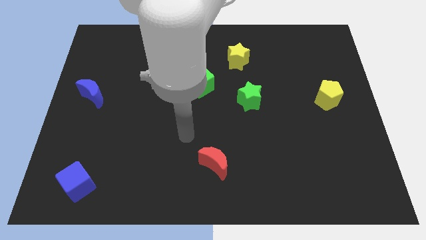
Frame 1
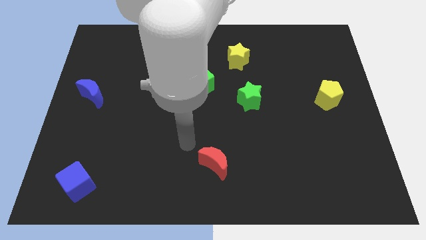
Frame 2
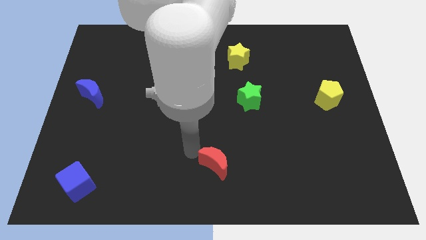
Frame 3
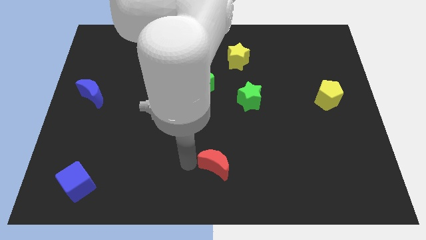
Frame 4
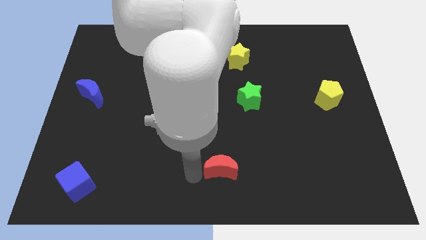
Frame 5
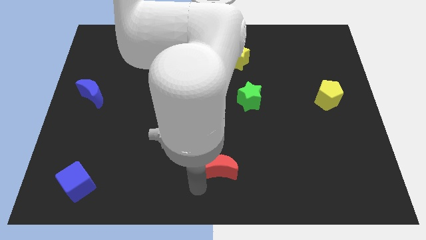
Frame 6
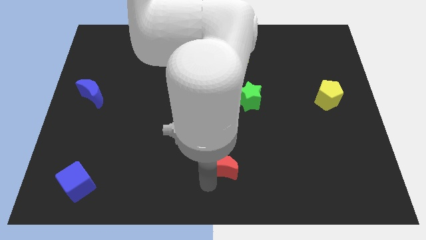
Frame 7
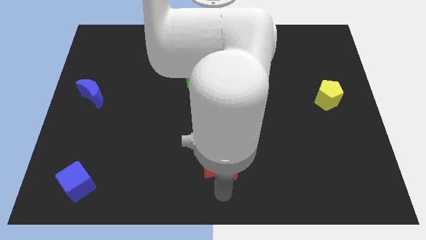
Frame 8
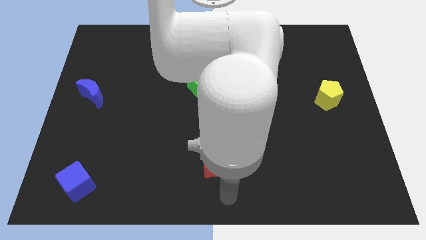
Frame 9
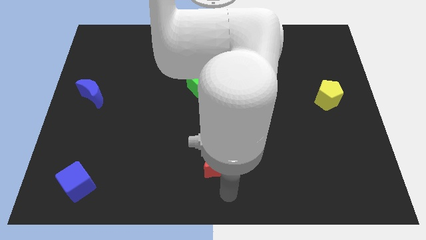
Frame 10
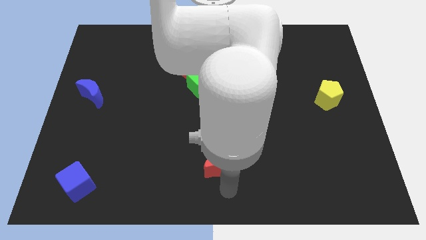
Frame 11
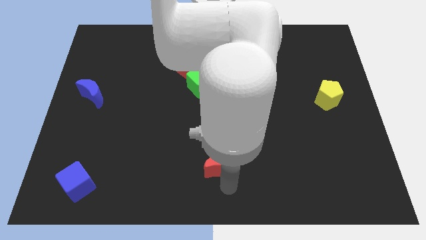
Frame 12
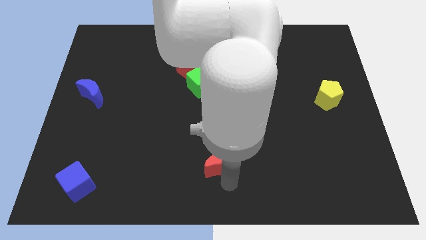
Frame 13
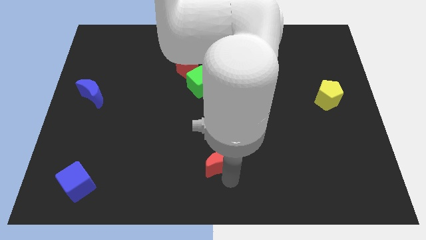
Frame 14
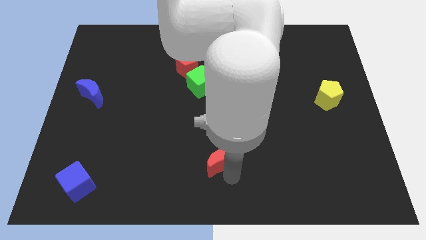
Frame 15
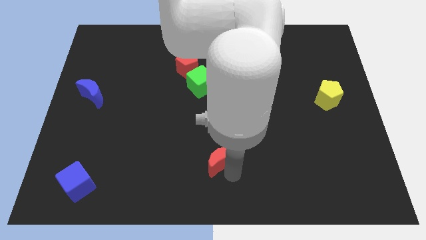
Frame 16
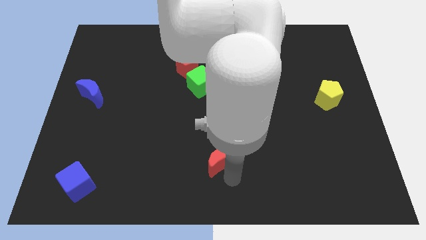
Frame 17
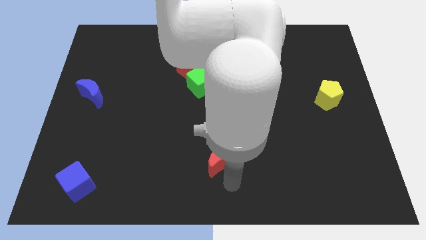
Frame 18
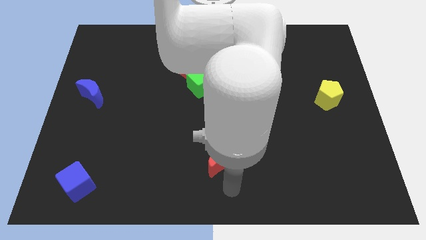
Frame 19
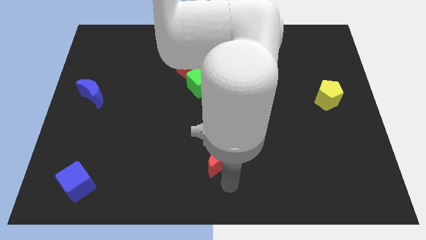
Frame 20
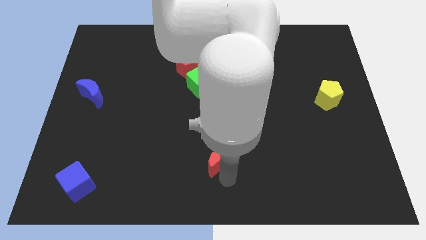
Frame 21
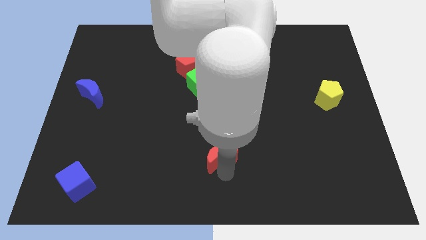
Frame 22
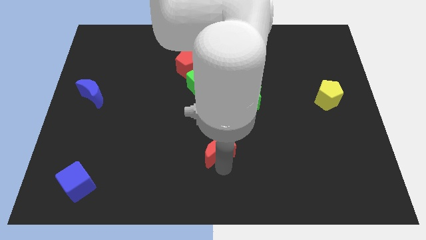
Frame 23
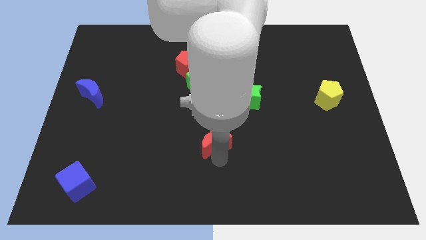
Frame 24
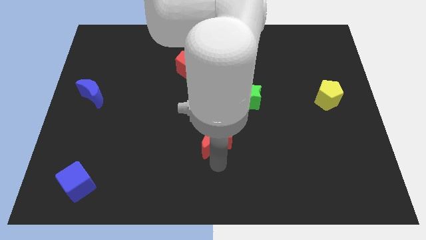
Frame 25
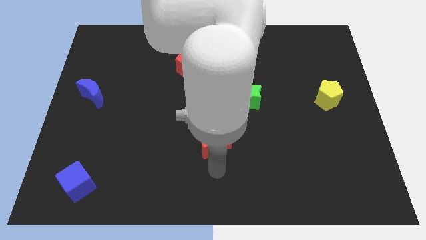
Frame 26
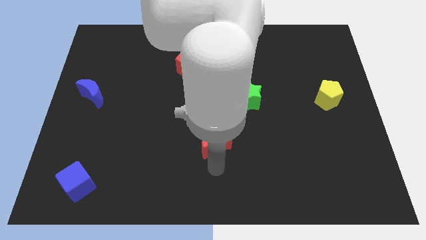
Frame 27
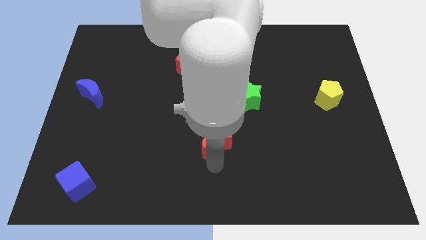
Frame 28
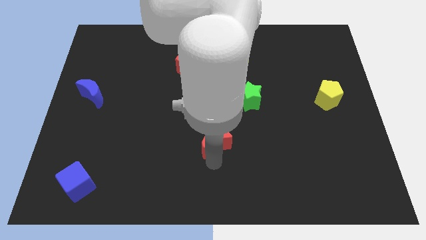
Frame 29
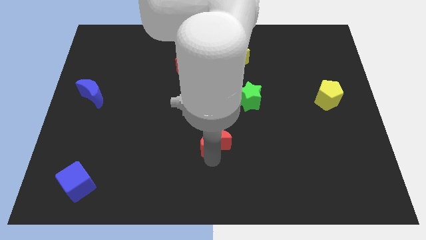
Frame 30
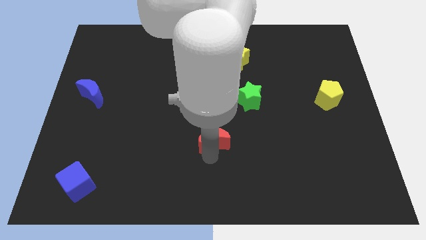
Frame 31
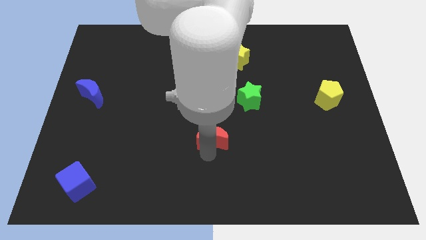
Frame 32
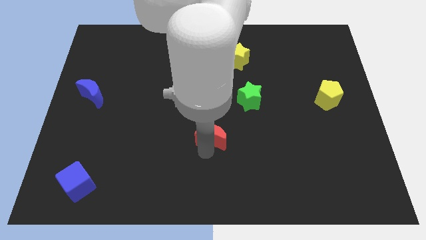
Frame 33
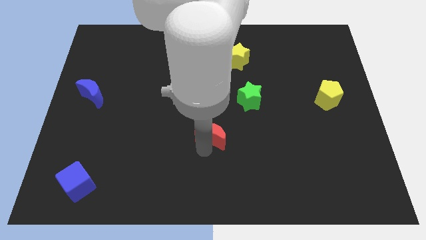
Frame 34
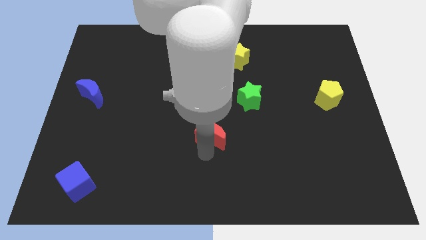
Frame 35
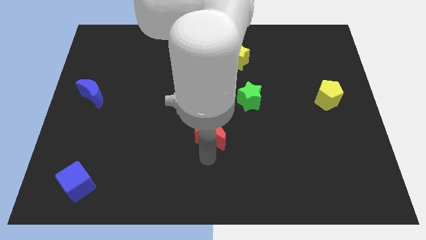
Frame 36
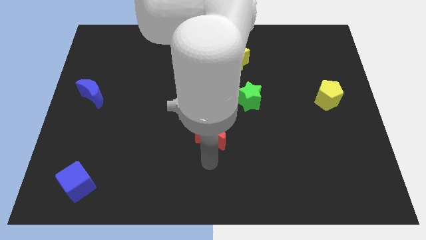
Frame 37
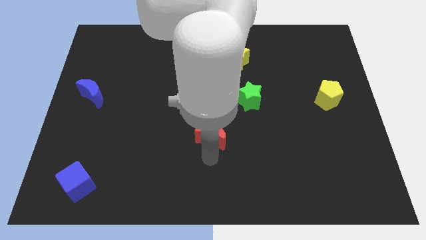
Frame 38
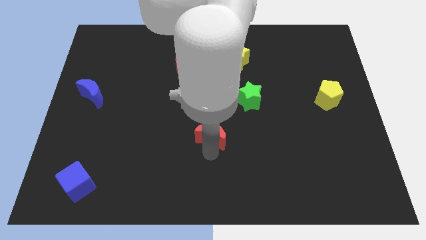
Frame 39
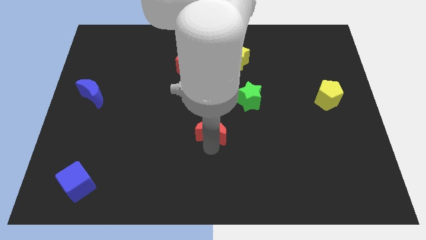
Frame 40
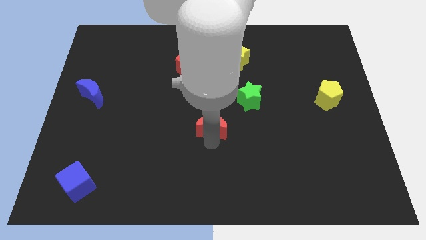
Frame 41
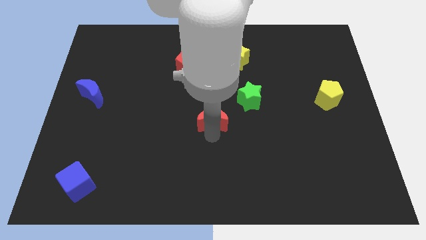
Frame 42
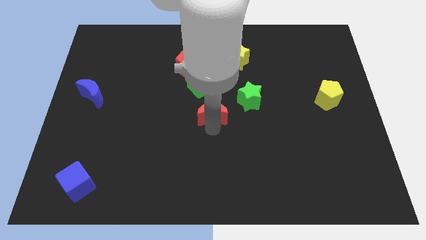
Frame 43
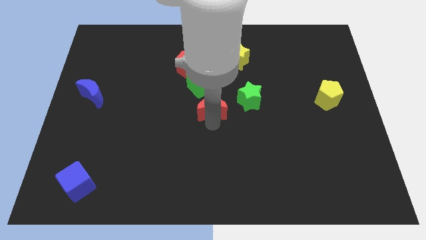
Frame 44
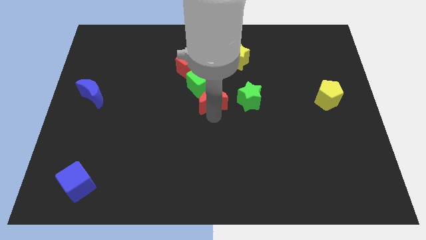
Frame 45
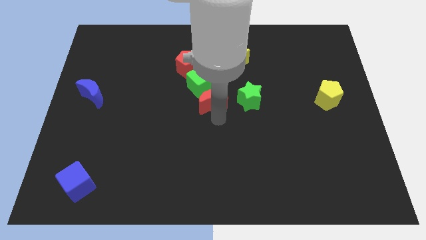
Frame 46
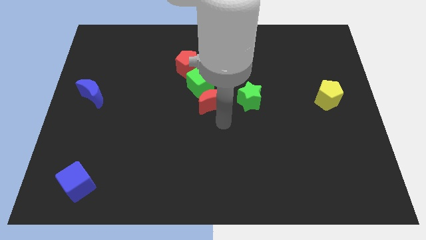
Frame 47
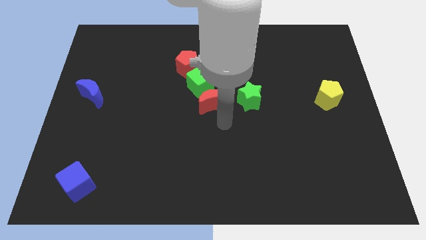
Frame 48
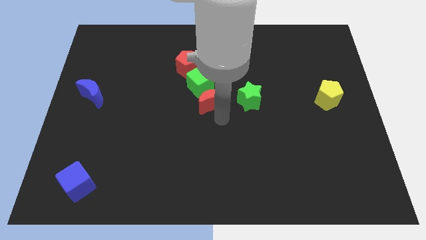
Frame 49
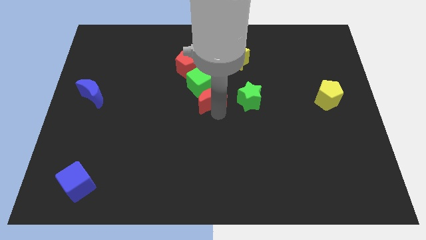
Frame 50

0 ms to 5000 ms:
push the red moon close to the green cube

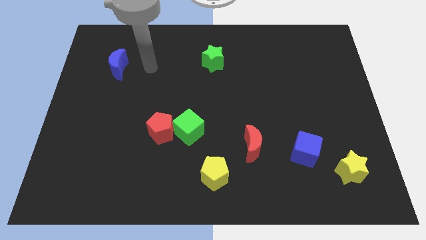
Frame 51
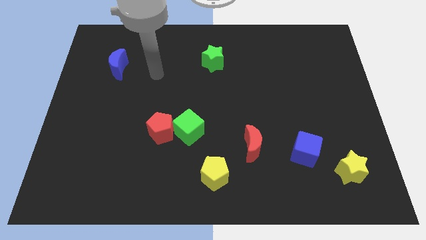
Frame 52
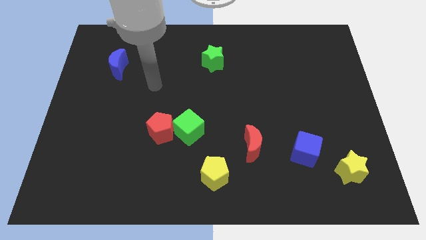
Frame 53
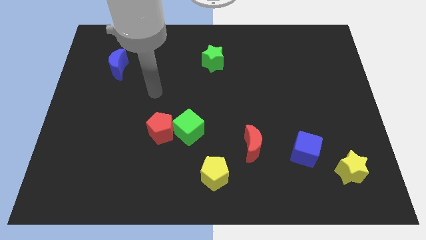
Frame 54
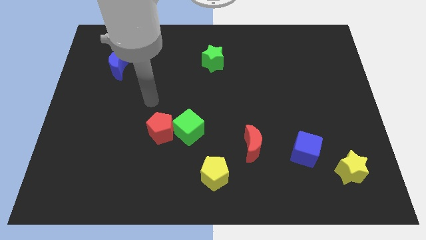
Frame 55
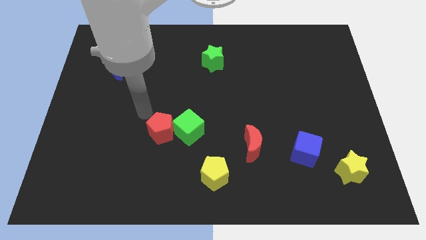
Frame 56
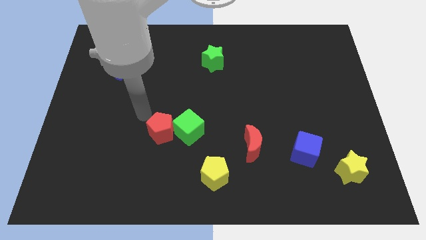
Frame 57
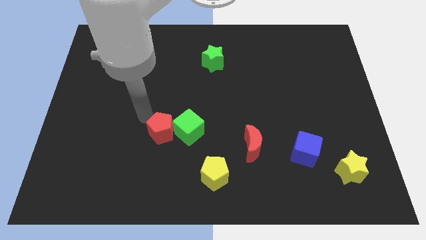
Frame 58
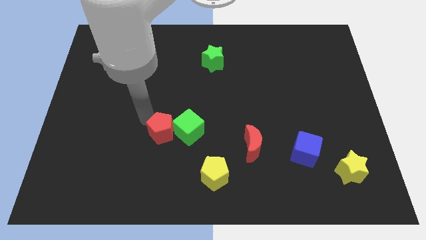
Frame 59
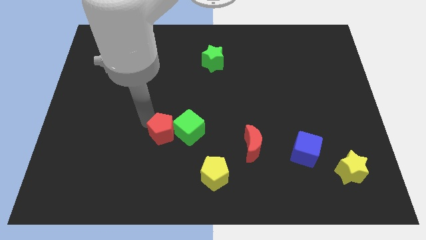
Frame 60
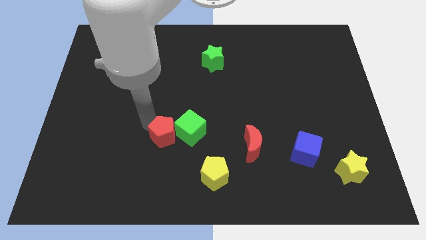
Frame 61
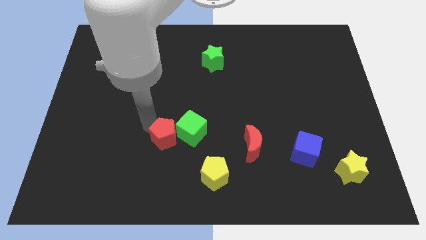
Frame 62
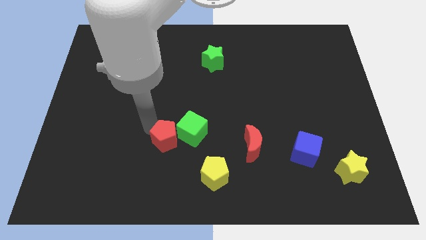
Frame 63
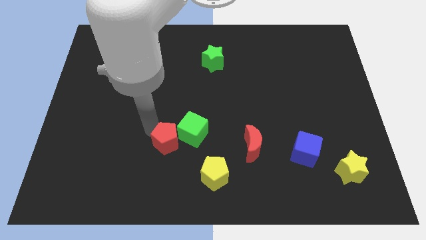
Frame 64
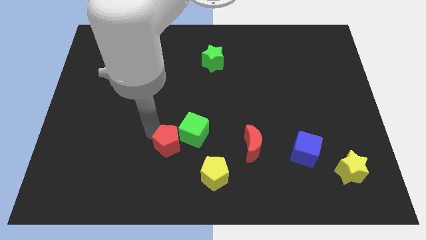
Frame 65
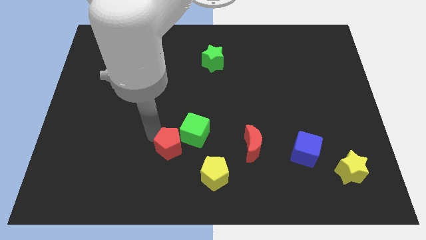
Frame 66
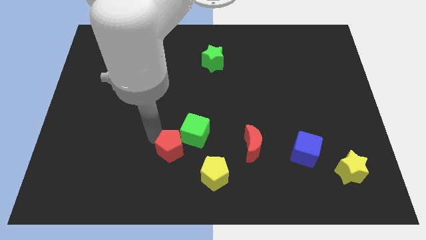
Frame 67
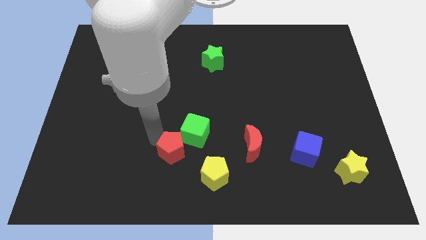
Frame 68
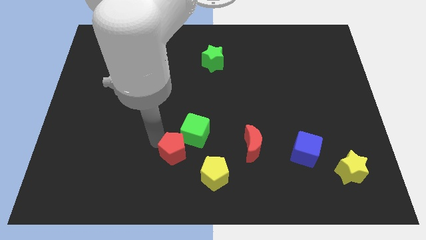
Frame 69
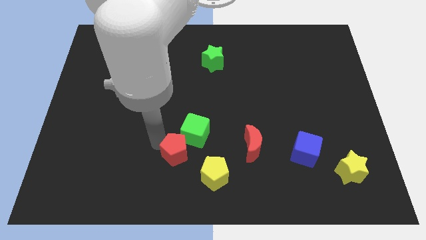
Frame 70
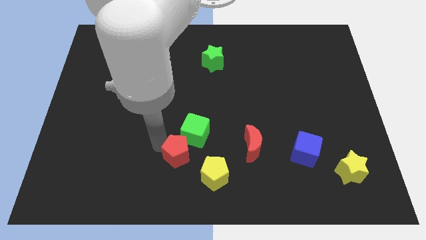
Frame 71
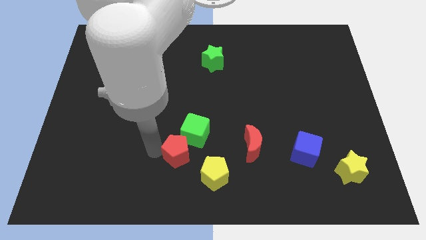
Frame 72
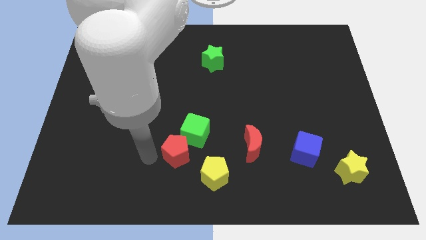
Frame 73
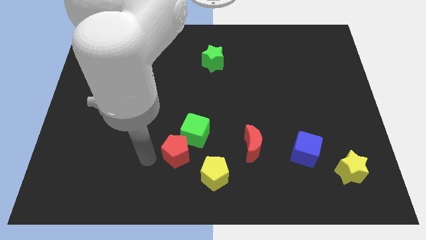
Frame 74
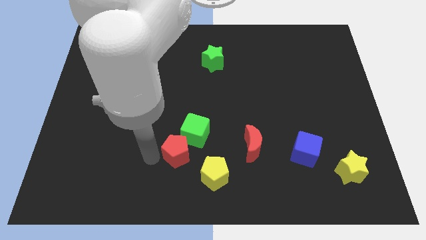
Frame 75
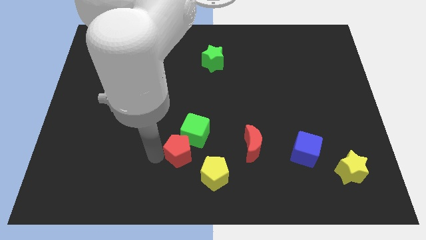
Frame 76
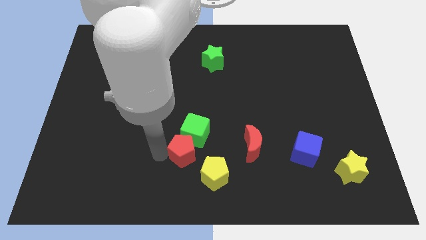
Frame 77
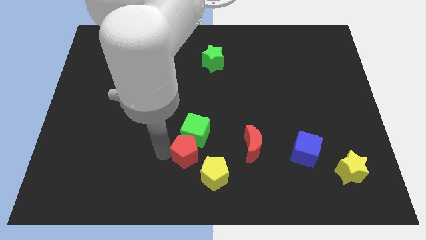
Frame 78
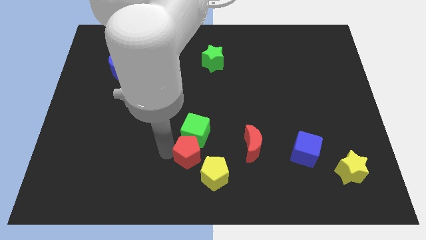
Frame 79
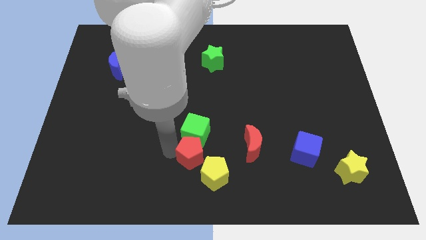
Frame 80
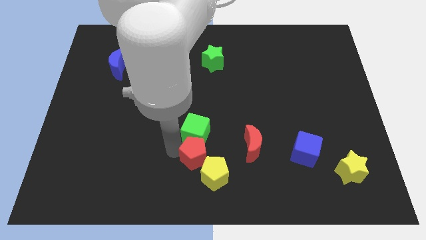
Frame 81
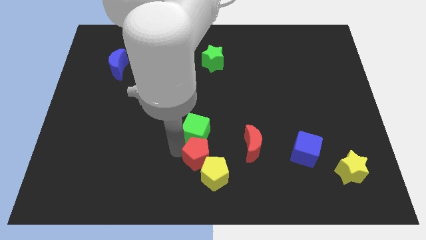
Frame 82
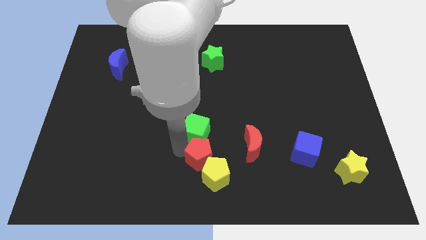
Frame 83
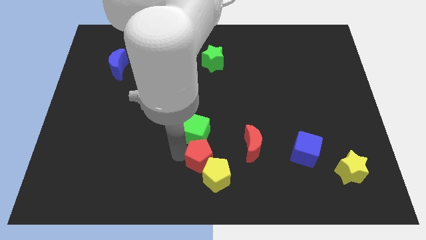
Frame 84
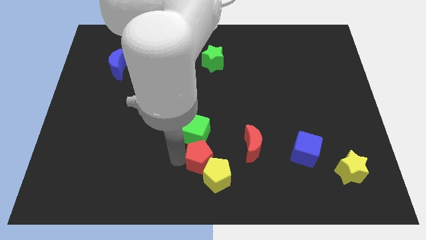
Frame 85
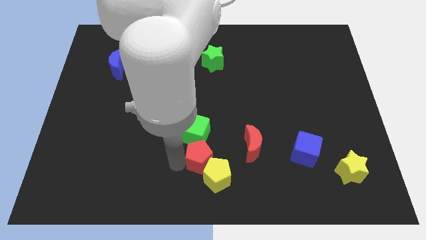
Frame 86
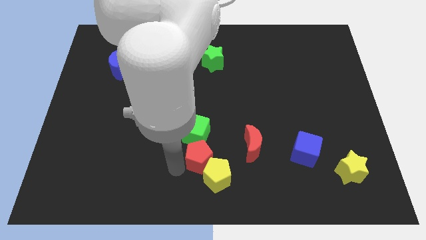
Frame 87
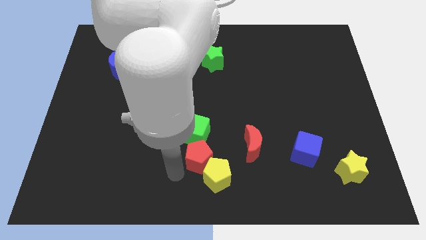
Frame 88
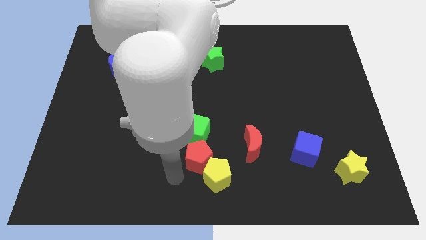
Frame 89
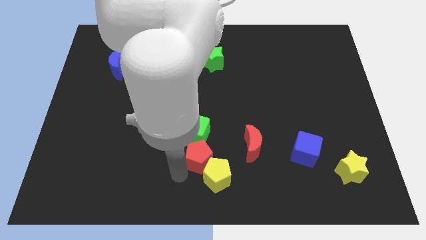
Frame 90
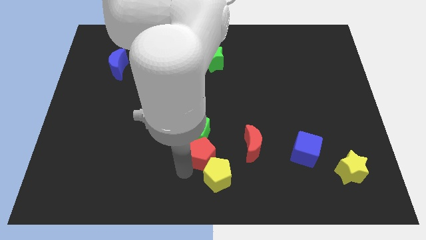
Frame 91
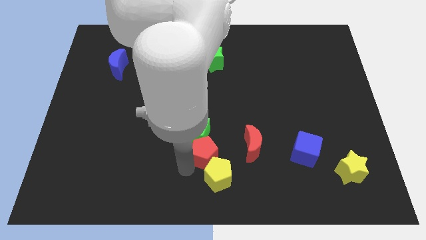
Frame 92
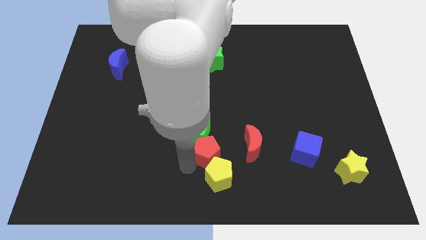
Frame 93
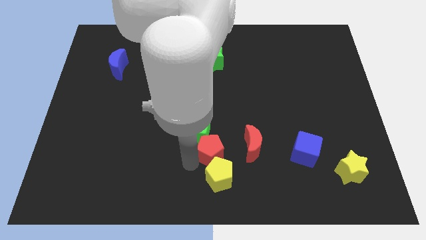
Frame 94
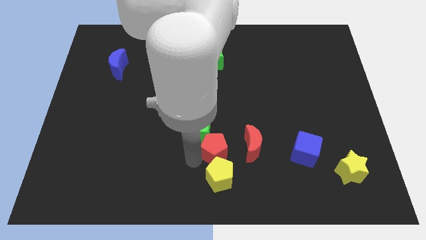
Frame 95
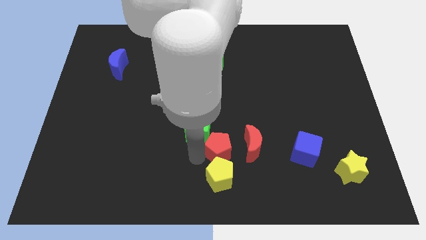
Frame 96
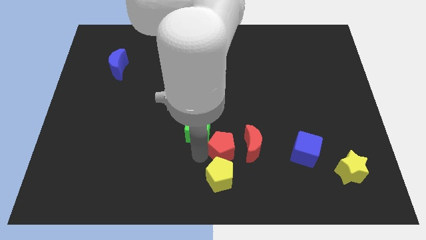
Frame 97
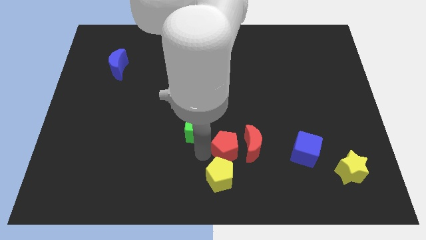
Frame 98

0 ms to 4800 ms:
slide the red pentagon next to the red moon
